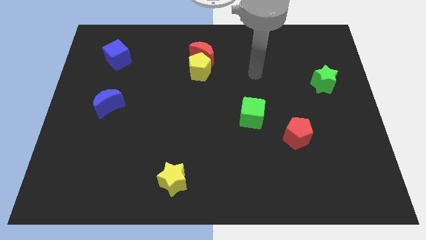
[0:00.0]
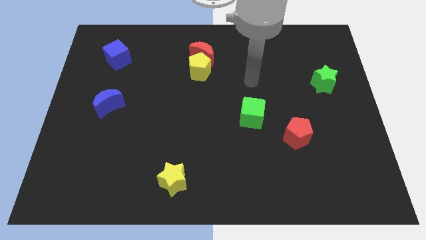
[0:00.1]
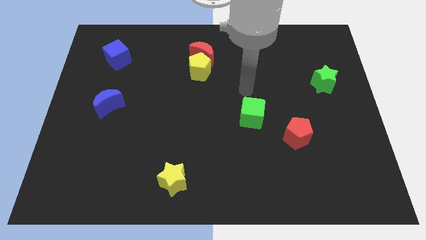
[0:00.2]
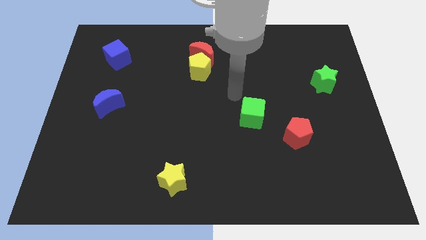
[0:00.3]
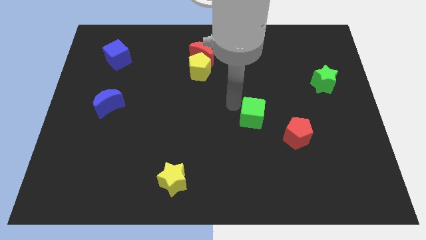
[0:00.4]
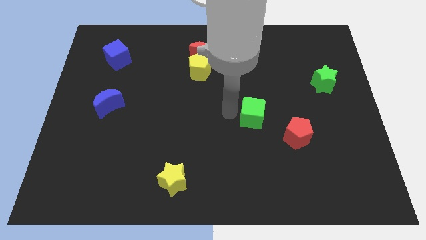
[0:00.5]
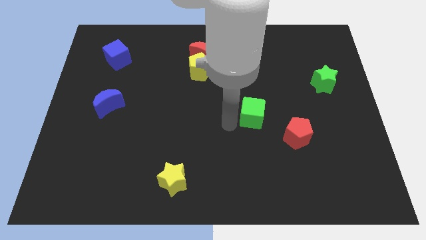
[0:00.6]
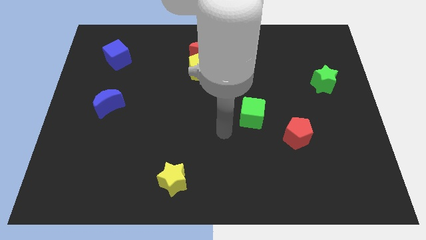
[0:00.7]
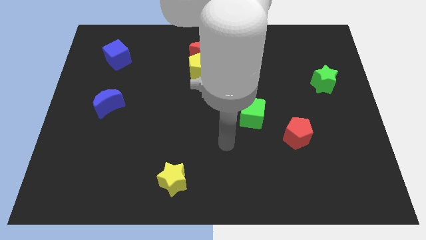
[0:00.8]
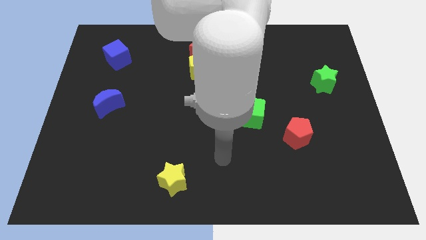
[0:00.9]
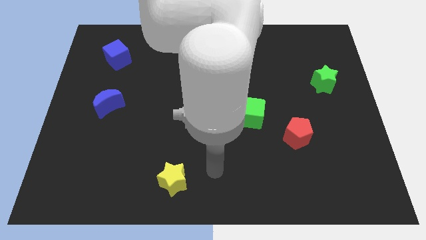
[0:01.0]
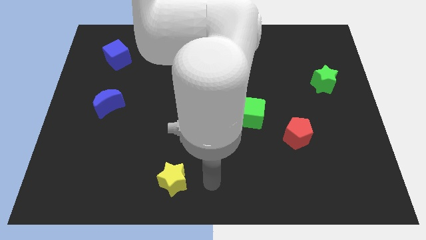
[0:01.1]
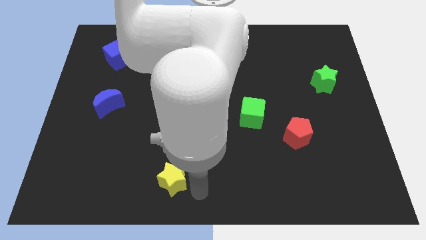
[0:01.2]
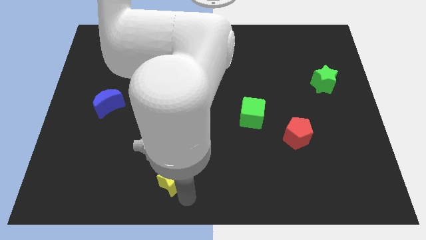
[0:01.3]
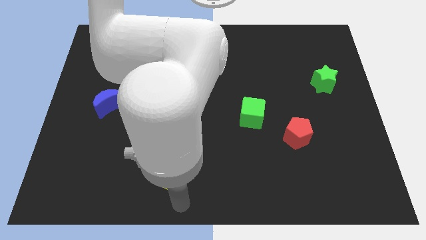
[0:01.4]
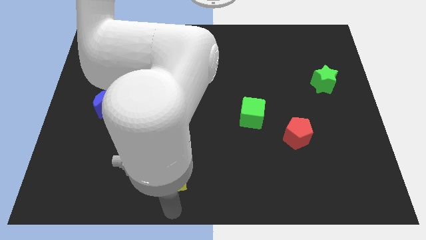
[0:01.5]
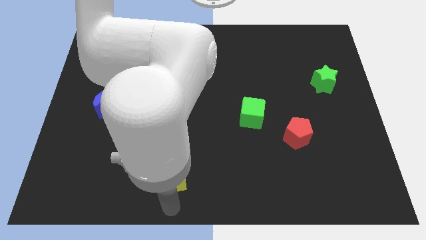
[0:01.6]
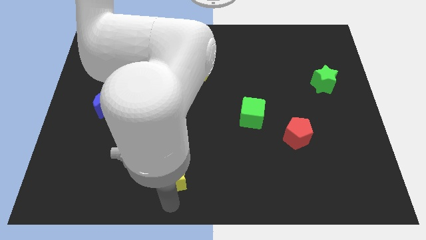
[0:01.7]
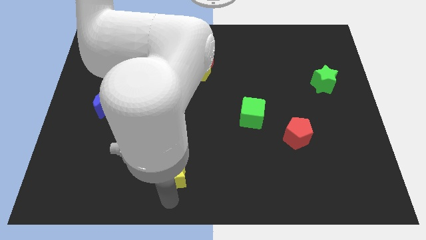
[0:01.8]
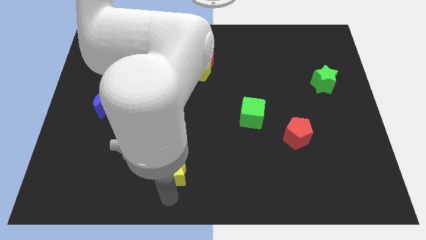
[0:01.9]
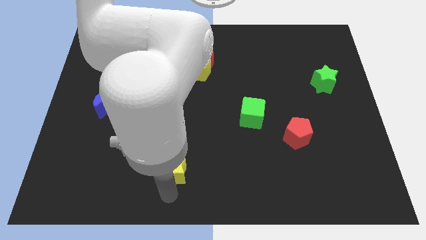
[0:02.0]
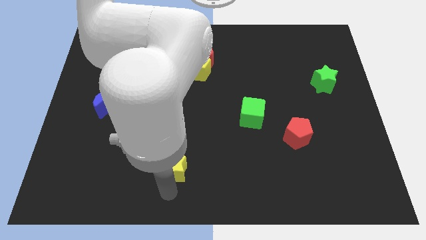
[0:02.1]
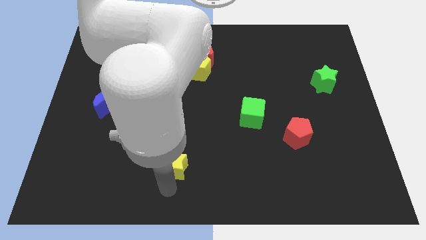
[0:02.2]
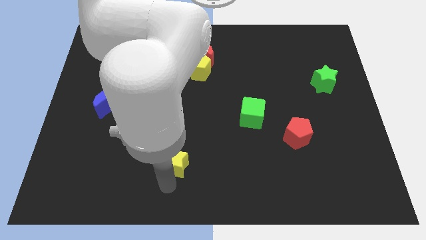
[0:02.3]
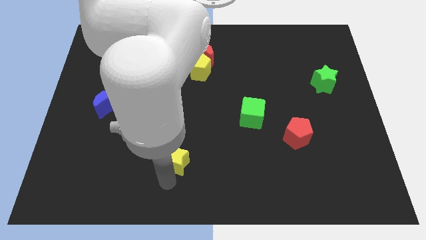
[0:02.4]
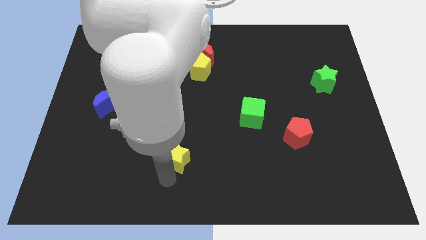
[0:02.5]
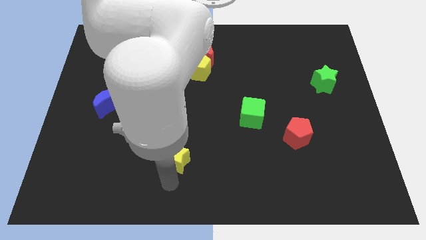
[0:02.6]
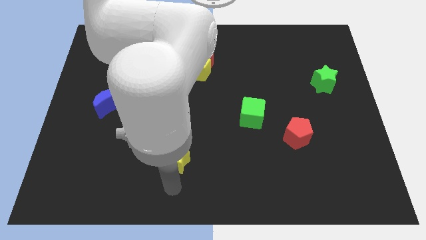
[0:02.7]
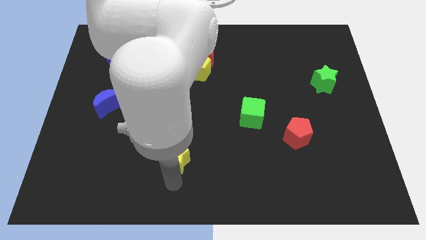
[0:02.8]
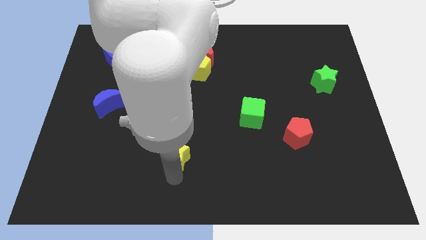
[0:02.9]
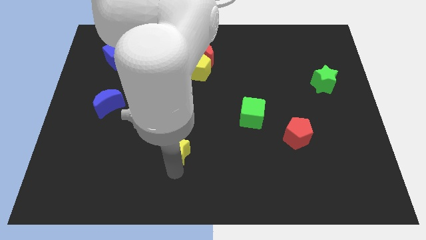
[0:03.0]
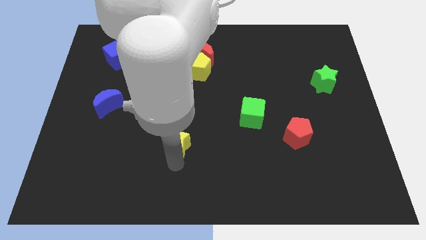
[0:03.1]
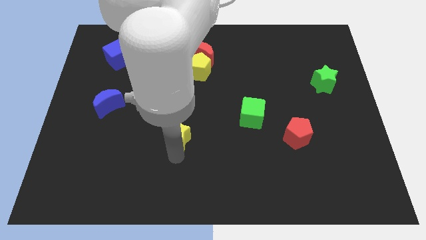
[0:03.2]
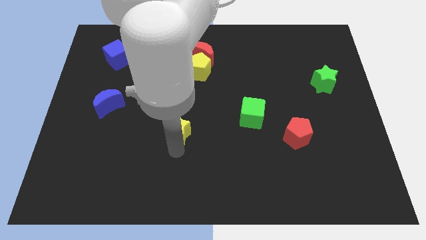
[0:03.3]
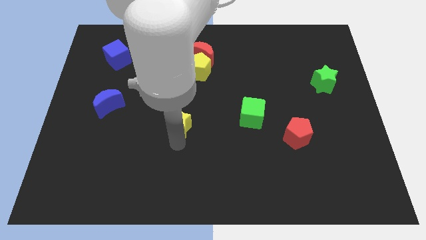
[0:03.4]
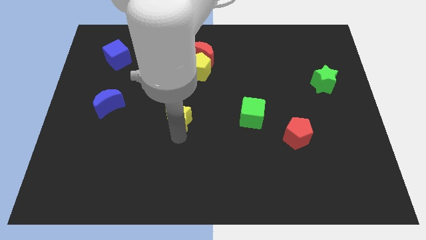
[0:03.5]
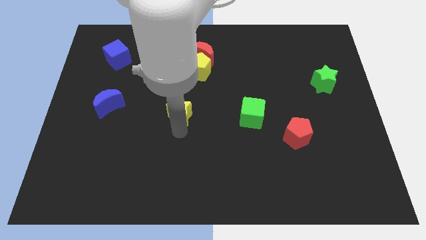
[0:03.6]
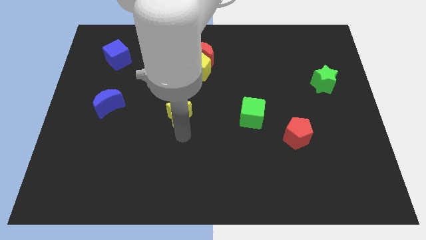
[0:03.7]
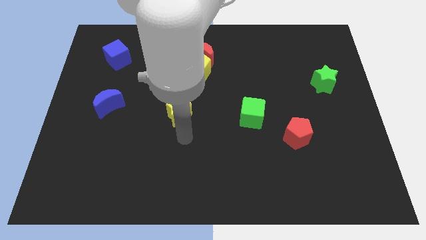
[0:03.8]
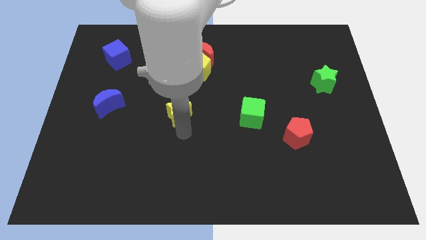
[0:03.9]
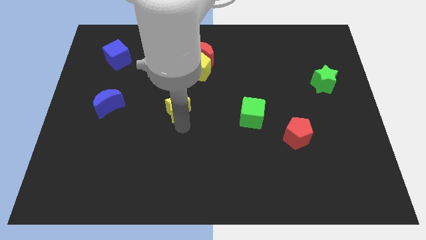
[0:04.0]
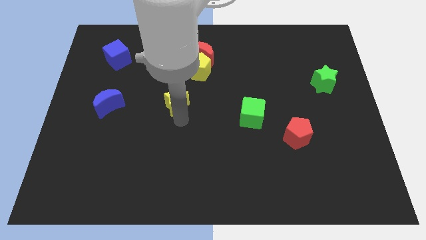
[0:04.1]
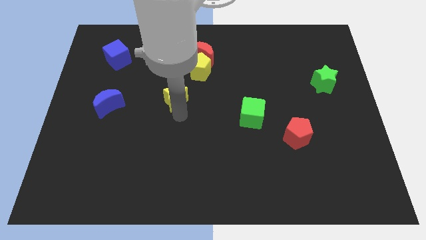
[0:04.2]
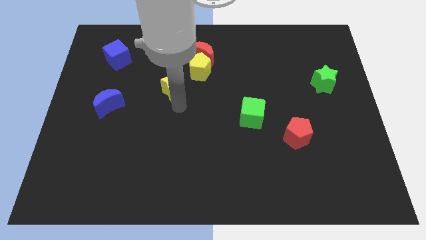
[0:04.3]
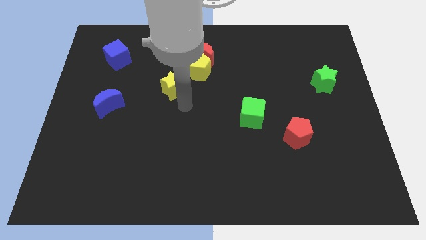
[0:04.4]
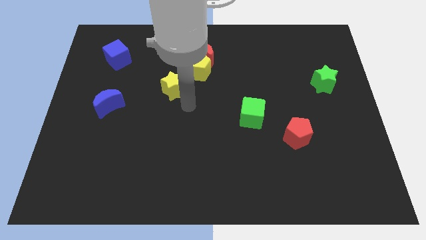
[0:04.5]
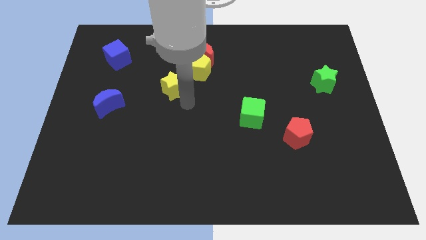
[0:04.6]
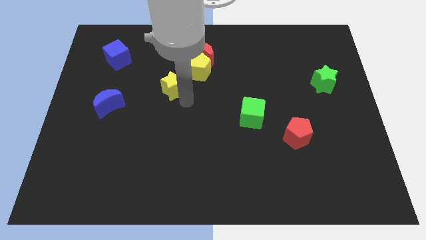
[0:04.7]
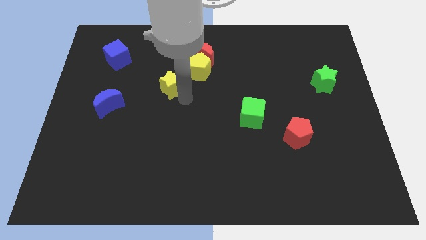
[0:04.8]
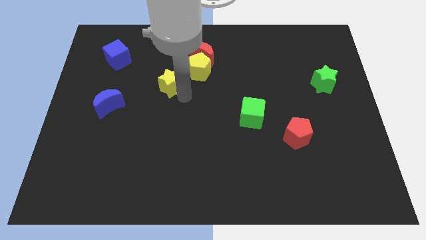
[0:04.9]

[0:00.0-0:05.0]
slide the yellow star to the left of the yellow pentagon

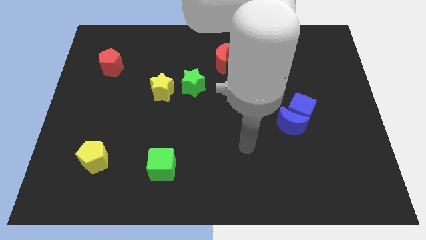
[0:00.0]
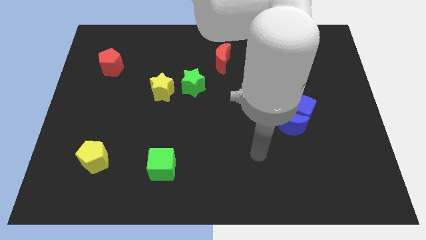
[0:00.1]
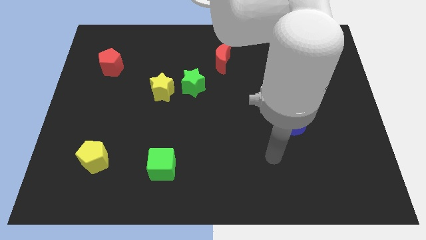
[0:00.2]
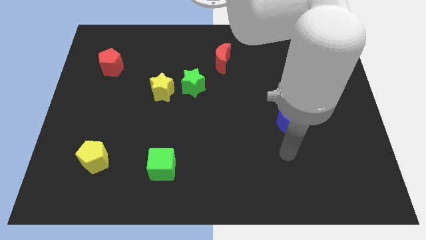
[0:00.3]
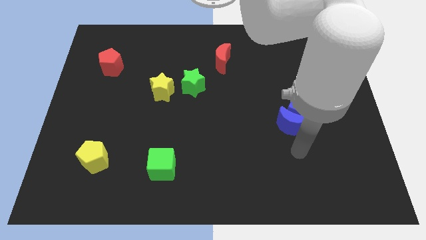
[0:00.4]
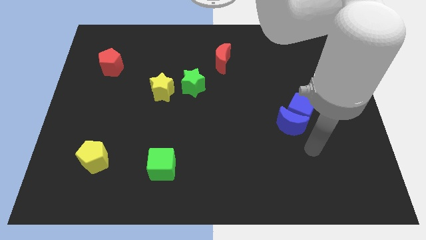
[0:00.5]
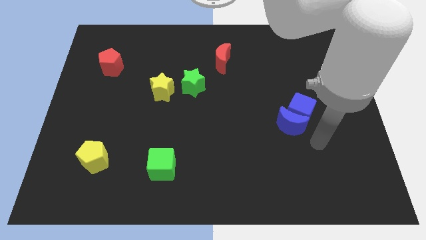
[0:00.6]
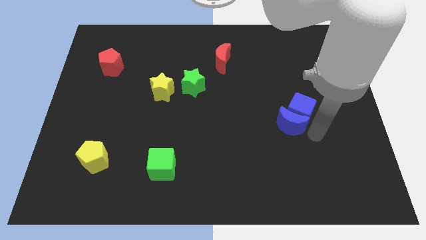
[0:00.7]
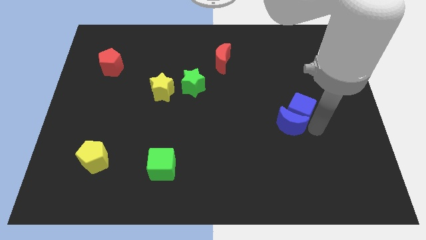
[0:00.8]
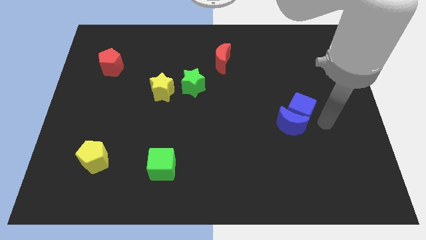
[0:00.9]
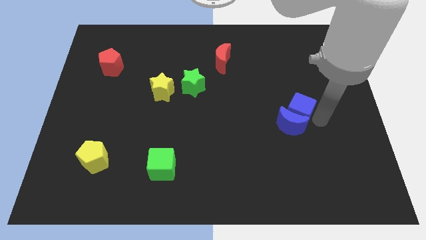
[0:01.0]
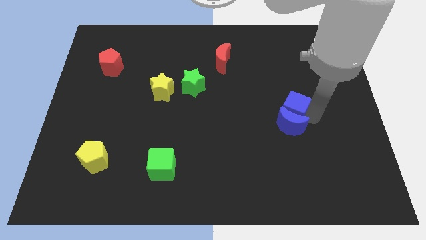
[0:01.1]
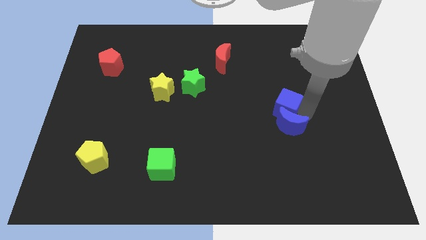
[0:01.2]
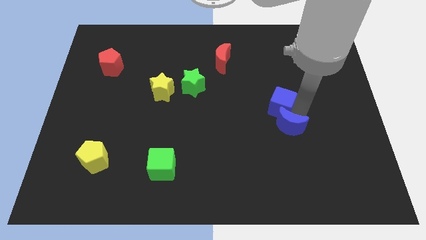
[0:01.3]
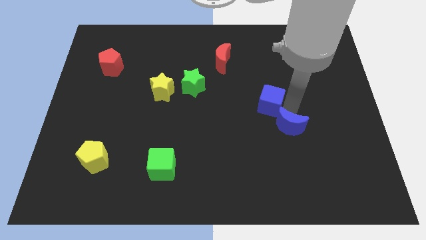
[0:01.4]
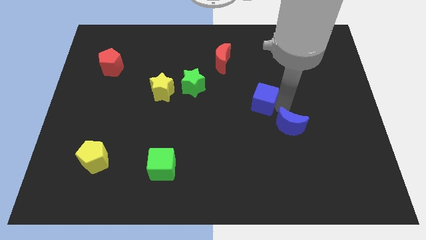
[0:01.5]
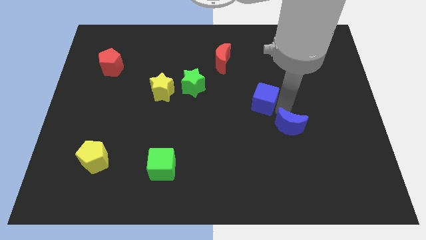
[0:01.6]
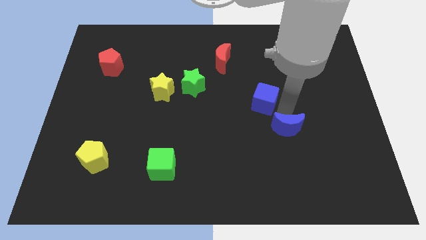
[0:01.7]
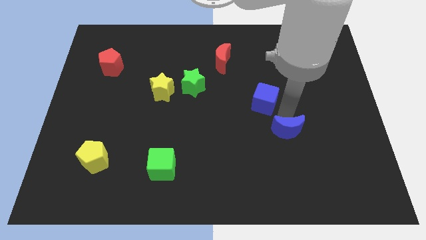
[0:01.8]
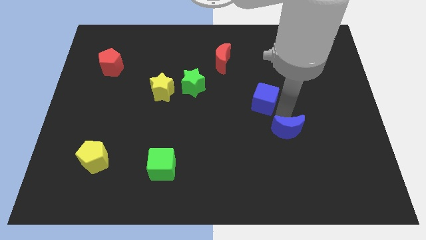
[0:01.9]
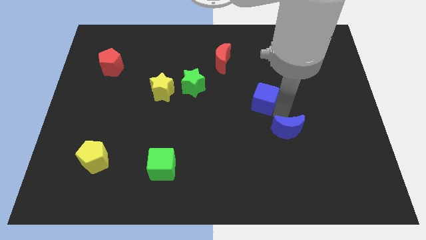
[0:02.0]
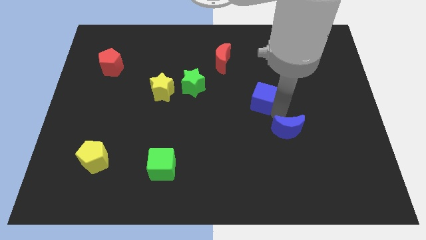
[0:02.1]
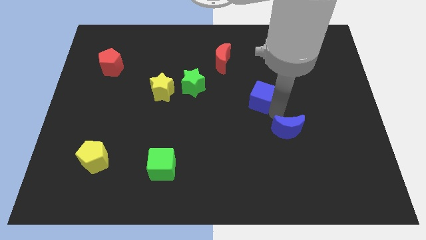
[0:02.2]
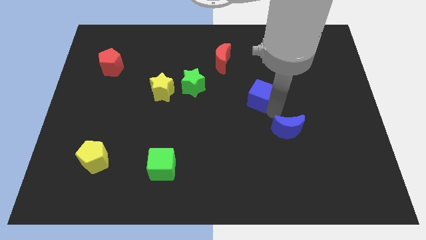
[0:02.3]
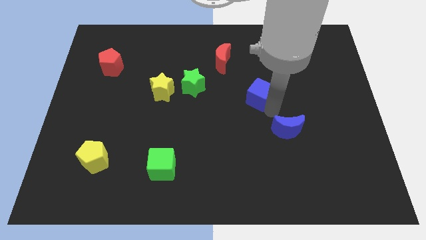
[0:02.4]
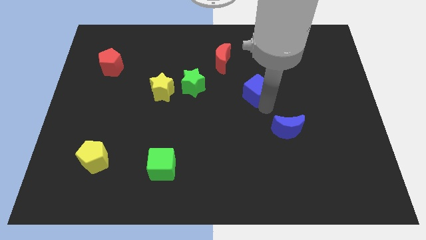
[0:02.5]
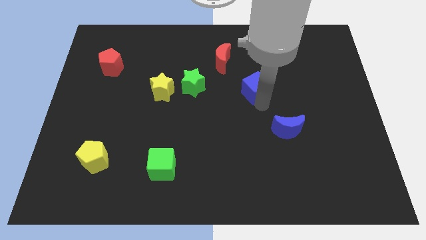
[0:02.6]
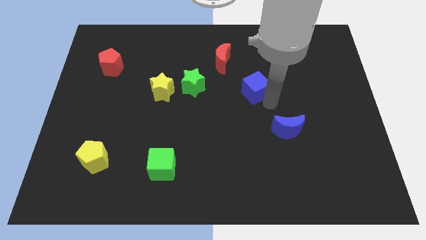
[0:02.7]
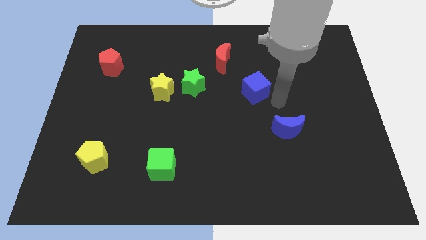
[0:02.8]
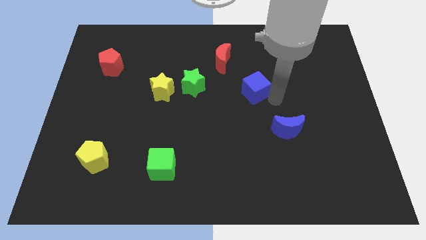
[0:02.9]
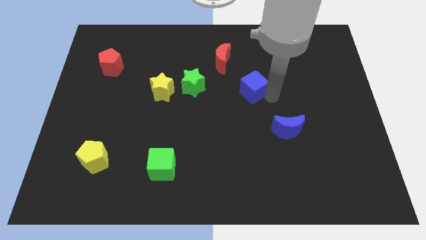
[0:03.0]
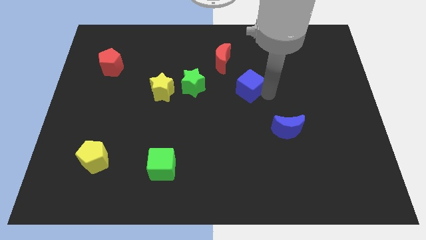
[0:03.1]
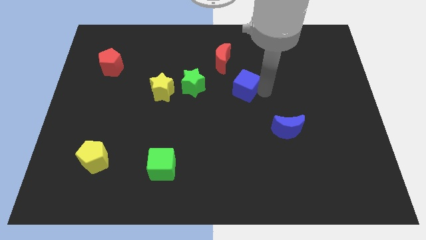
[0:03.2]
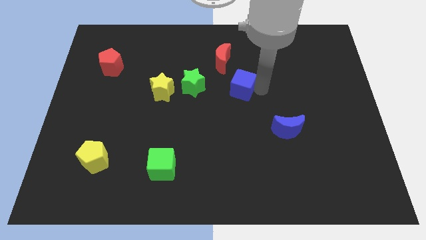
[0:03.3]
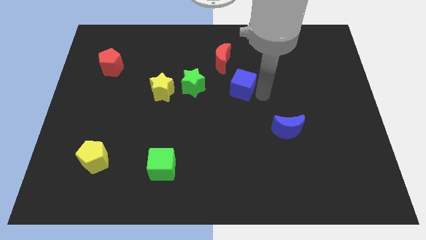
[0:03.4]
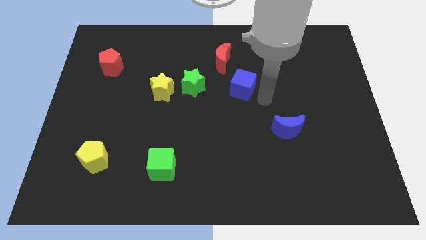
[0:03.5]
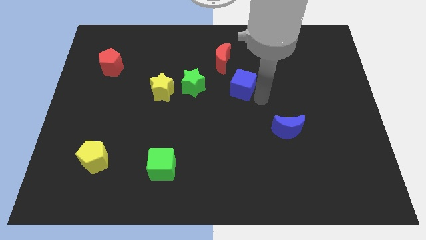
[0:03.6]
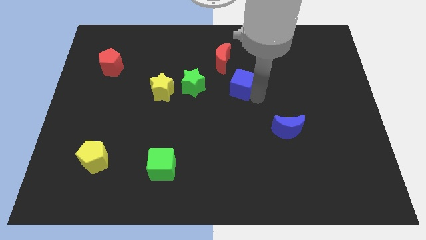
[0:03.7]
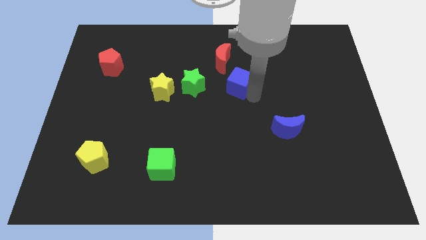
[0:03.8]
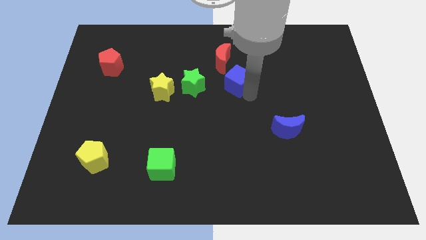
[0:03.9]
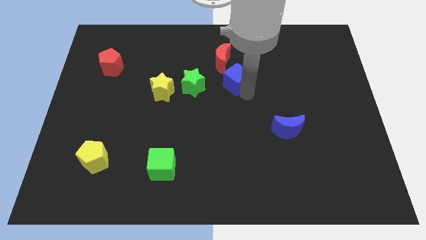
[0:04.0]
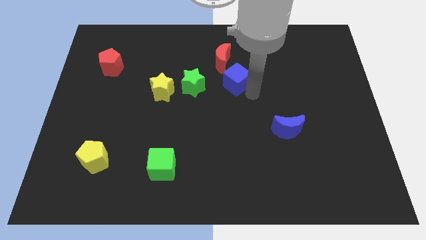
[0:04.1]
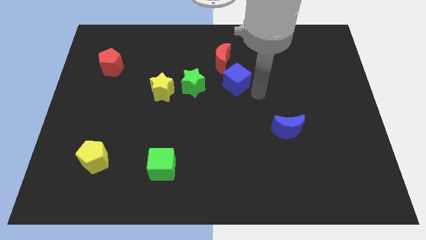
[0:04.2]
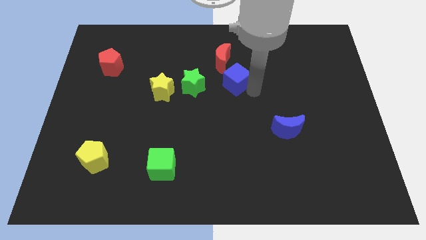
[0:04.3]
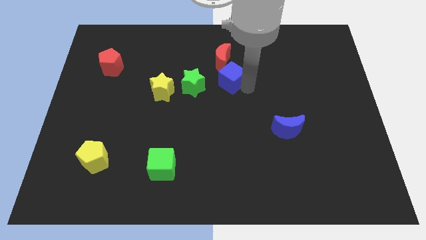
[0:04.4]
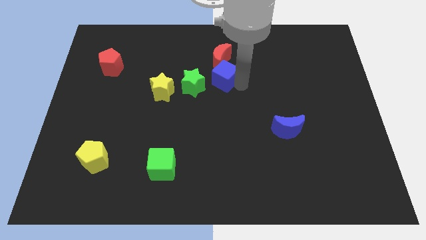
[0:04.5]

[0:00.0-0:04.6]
slide the blue cube to the top right of the green star
